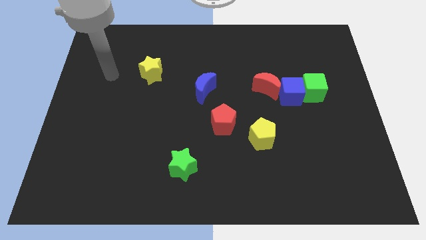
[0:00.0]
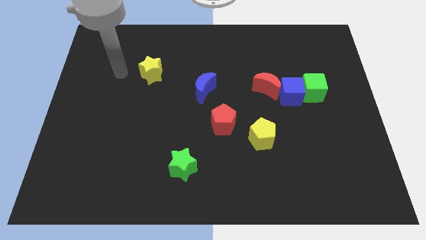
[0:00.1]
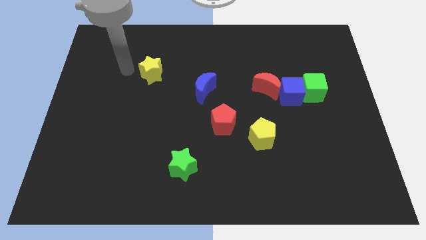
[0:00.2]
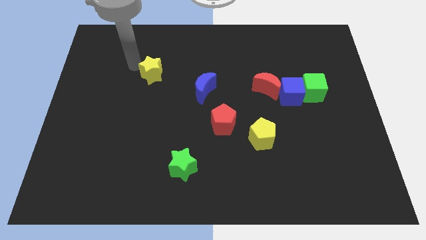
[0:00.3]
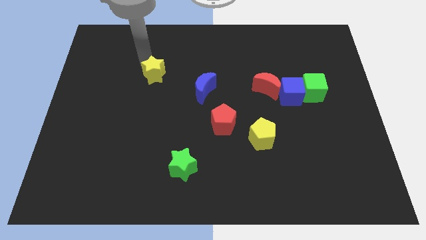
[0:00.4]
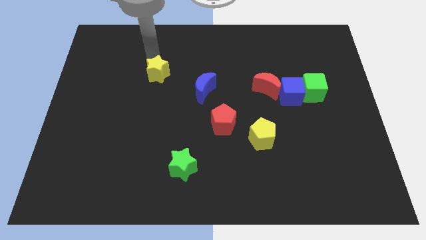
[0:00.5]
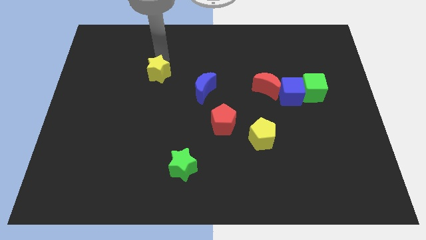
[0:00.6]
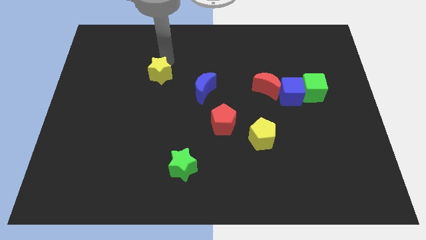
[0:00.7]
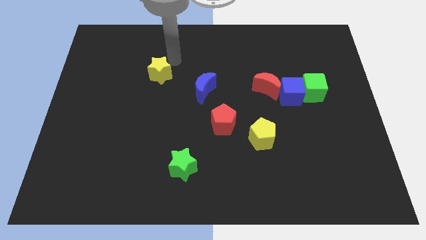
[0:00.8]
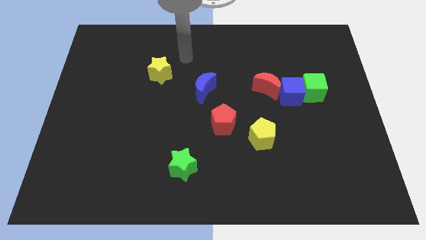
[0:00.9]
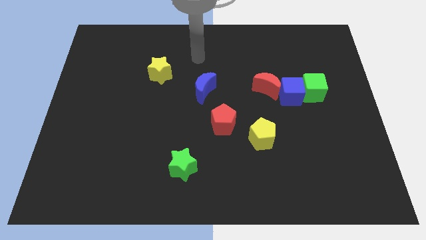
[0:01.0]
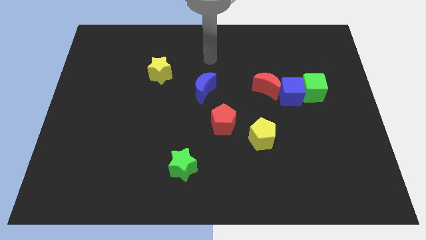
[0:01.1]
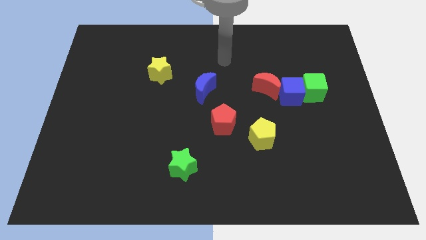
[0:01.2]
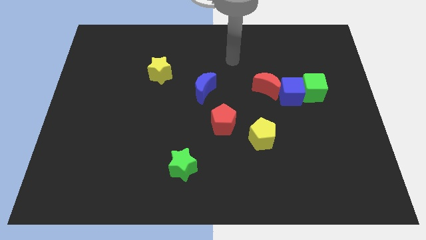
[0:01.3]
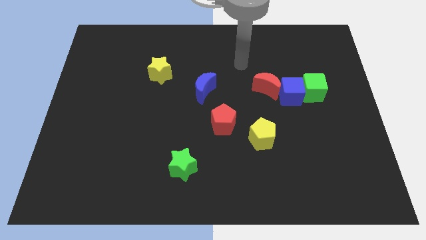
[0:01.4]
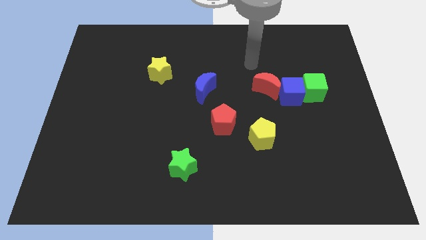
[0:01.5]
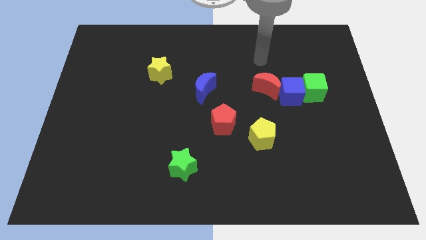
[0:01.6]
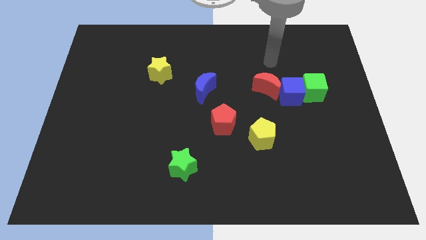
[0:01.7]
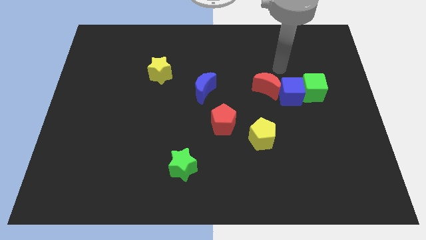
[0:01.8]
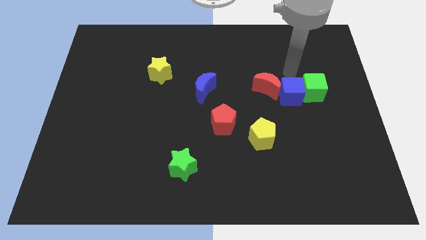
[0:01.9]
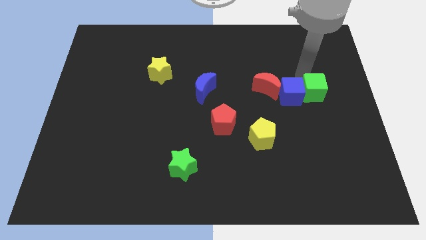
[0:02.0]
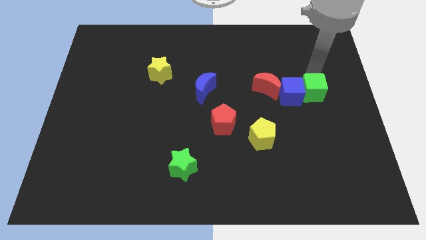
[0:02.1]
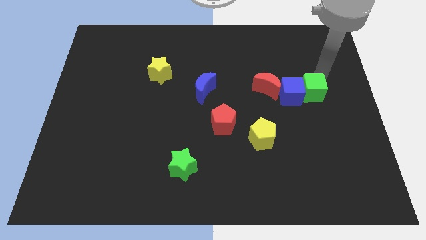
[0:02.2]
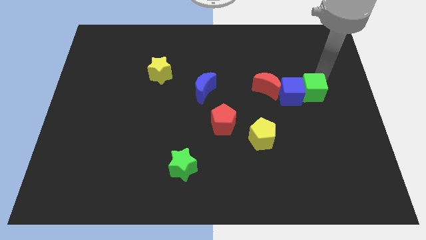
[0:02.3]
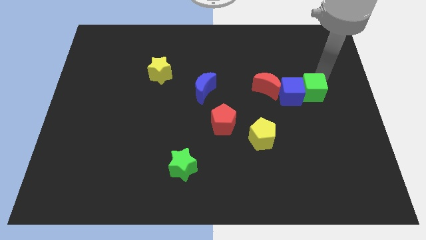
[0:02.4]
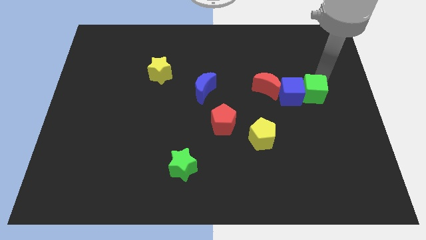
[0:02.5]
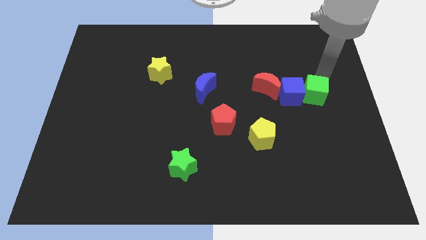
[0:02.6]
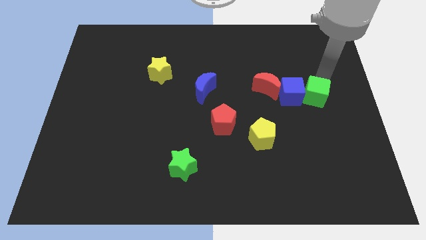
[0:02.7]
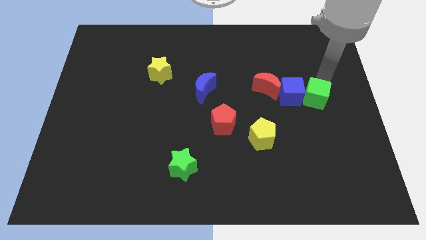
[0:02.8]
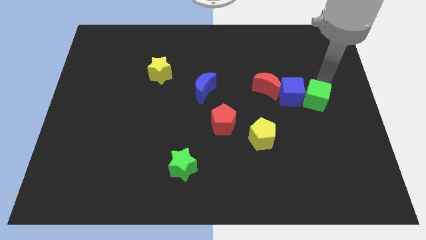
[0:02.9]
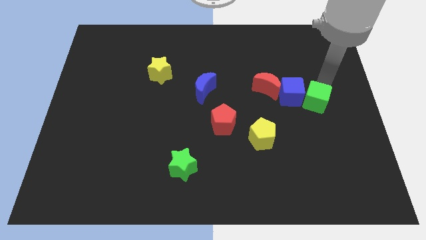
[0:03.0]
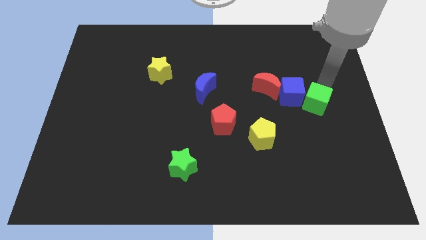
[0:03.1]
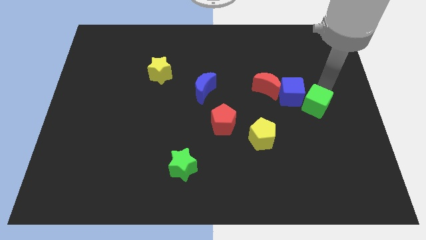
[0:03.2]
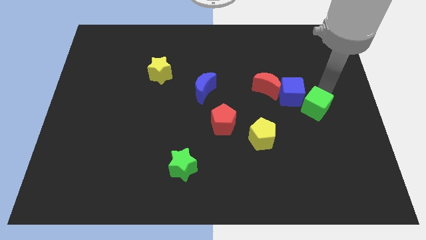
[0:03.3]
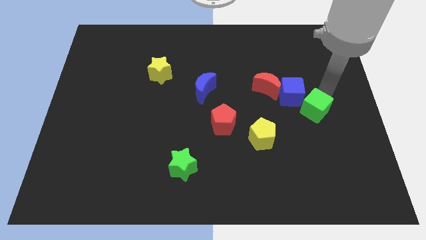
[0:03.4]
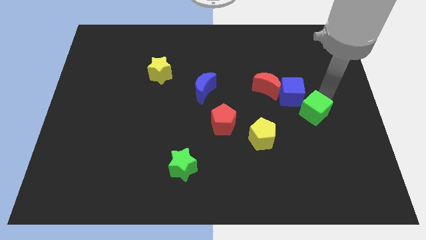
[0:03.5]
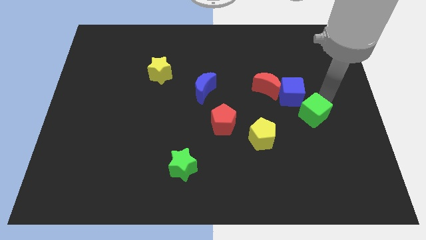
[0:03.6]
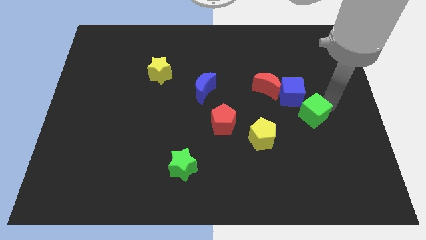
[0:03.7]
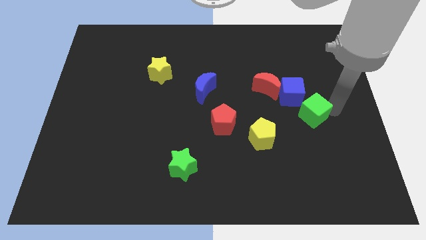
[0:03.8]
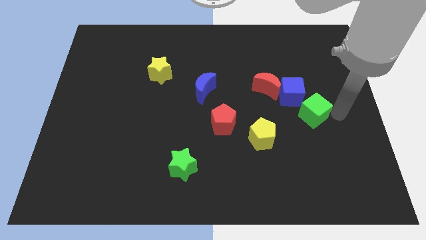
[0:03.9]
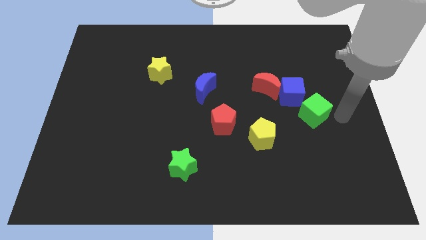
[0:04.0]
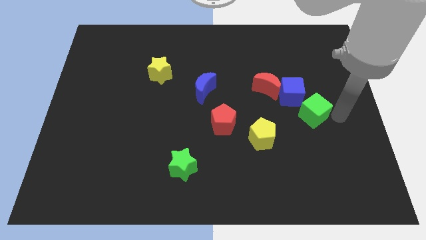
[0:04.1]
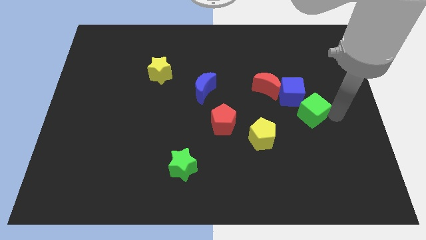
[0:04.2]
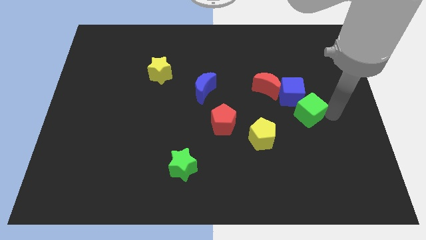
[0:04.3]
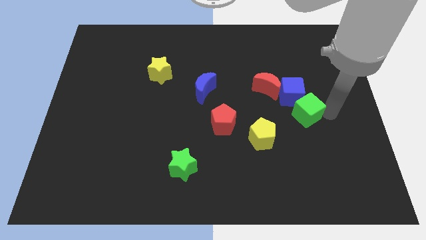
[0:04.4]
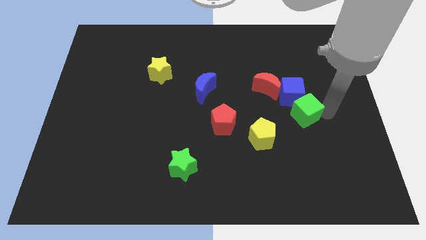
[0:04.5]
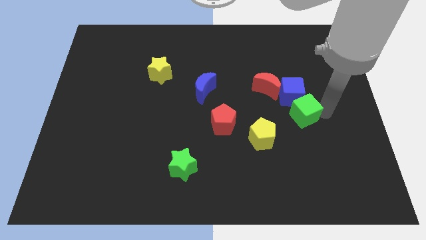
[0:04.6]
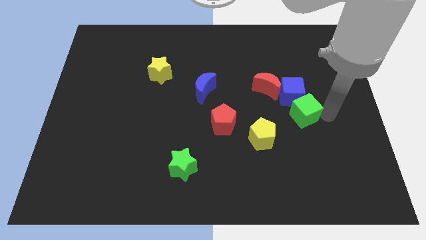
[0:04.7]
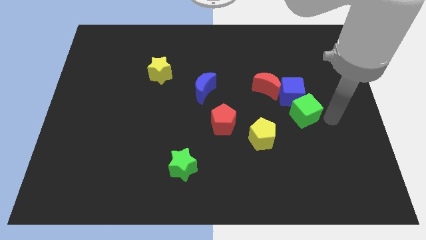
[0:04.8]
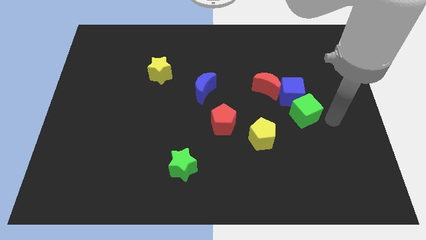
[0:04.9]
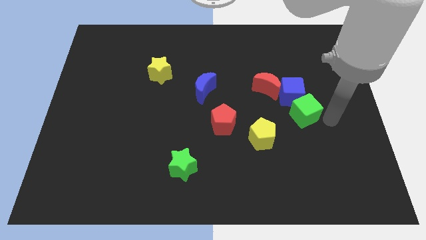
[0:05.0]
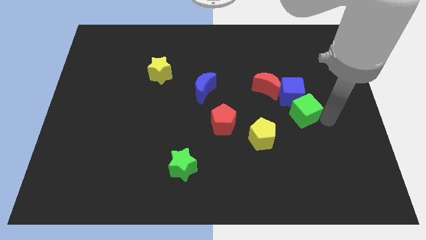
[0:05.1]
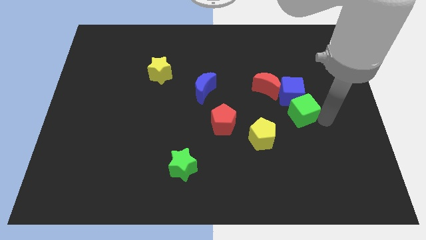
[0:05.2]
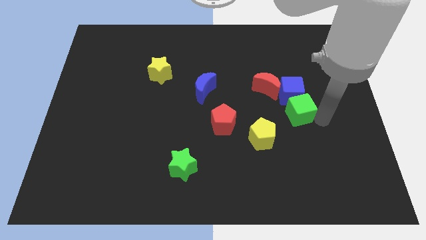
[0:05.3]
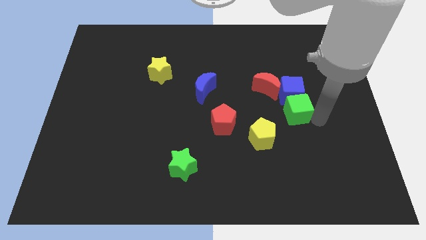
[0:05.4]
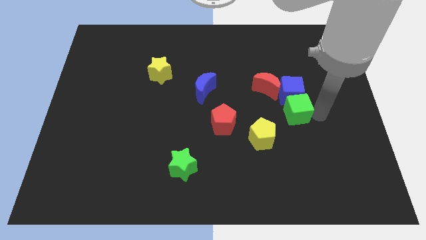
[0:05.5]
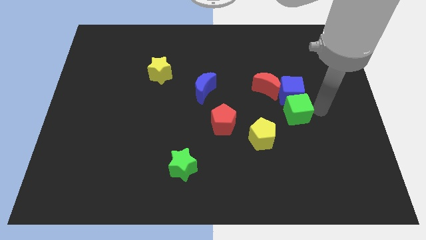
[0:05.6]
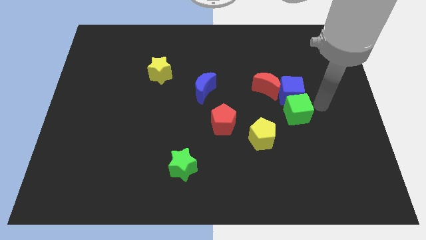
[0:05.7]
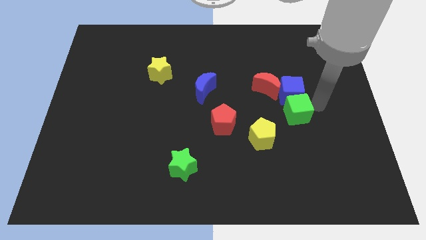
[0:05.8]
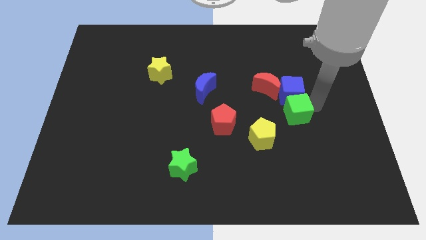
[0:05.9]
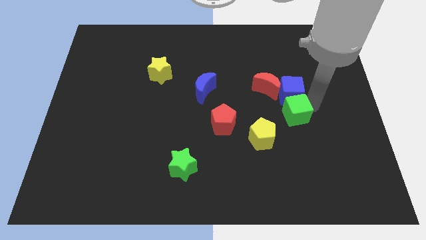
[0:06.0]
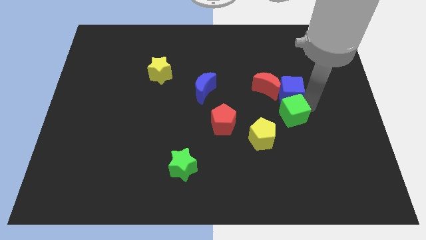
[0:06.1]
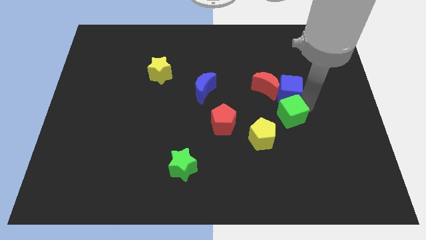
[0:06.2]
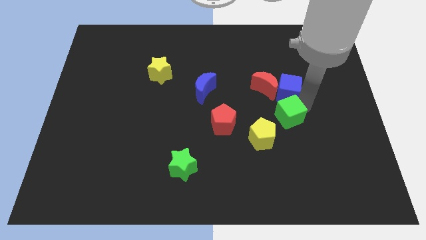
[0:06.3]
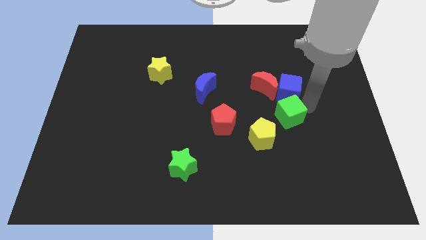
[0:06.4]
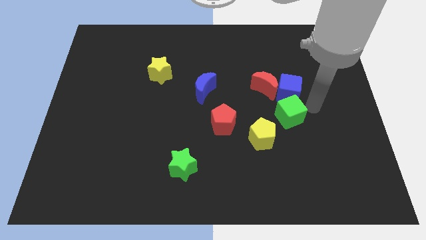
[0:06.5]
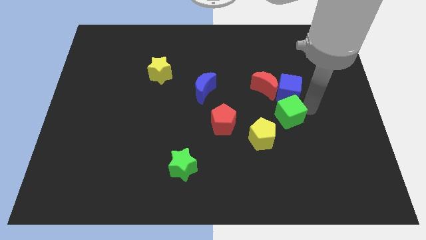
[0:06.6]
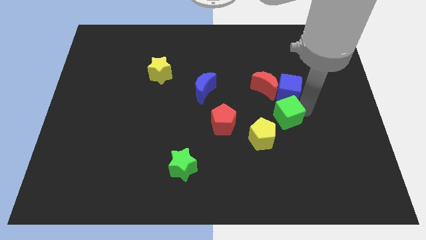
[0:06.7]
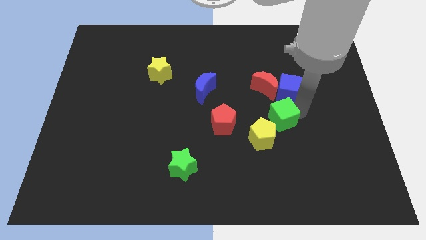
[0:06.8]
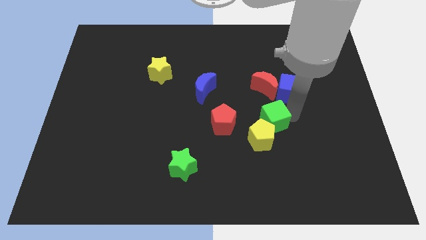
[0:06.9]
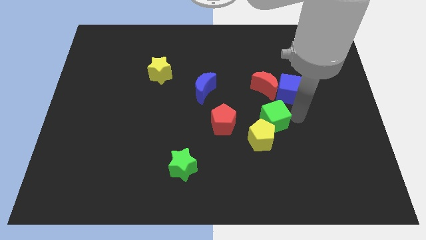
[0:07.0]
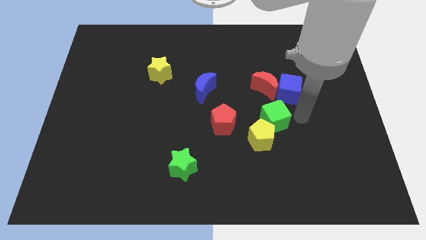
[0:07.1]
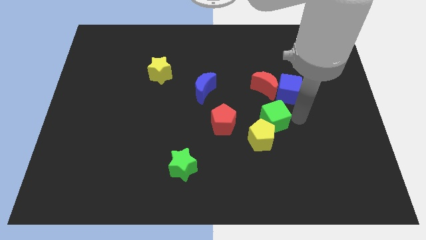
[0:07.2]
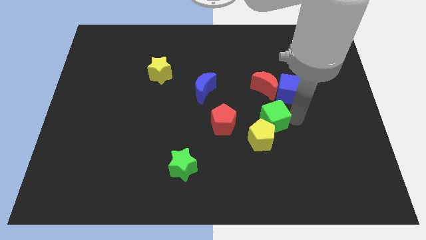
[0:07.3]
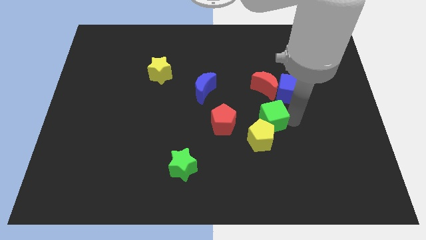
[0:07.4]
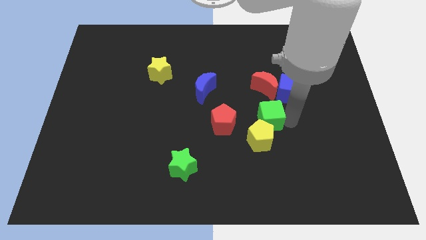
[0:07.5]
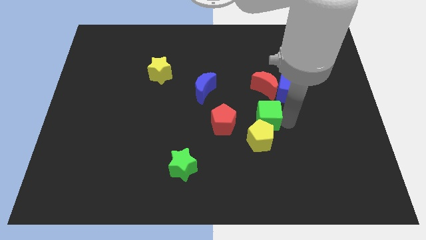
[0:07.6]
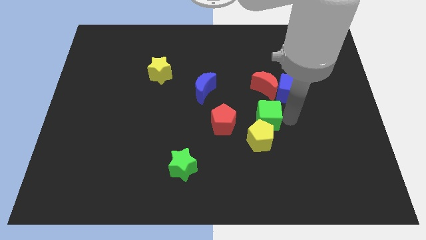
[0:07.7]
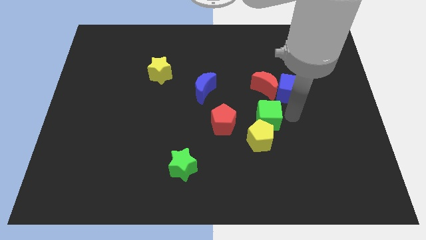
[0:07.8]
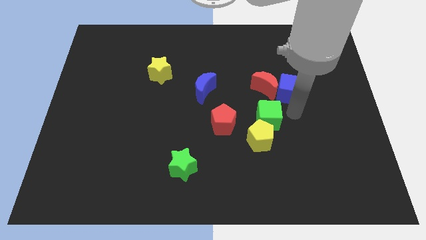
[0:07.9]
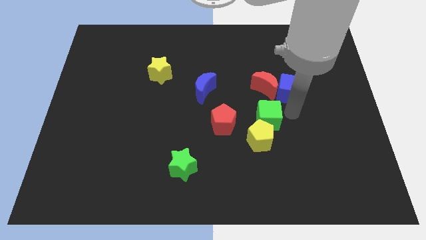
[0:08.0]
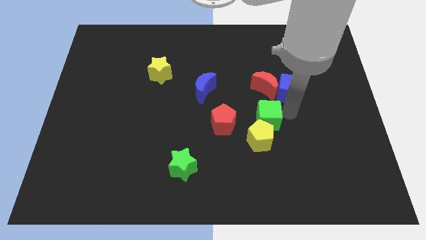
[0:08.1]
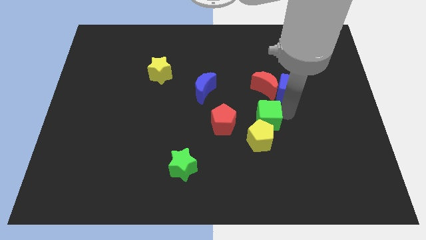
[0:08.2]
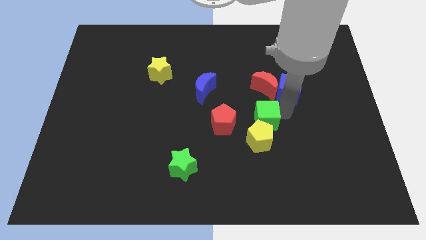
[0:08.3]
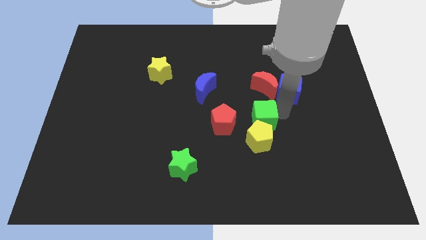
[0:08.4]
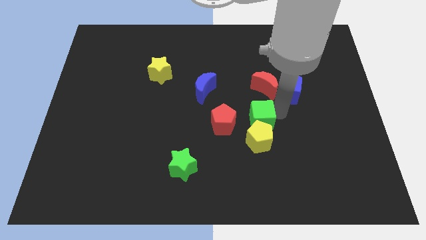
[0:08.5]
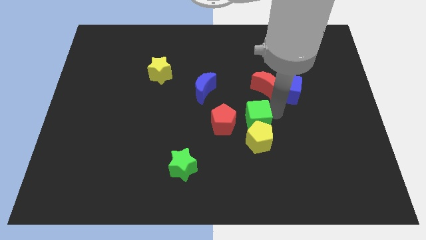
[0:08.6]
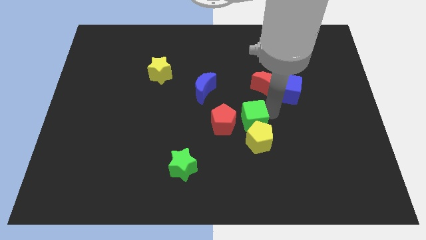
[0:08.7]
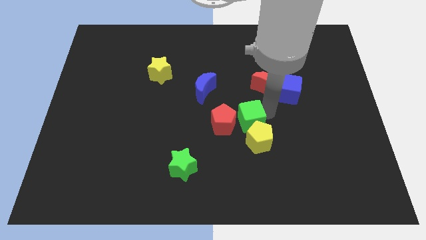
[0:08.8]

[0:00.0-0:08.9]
slide the green cube close to the red pentagon
